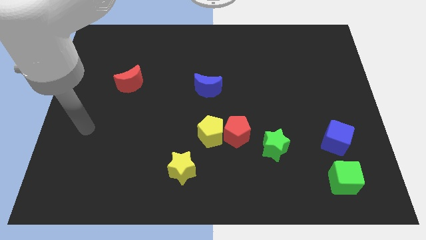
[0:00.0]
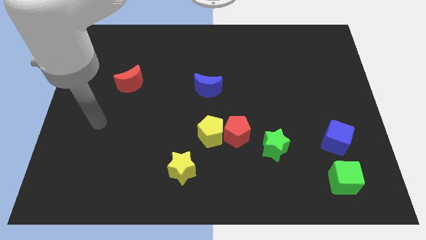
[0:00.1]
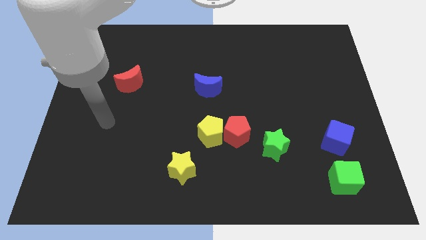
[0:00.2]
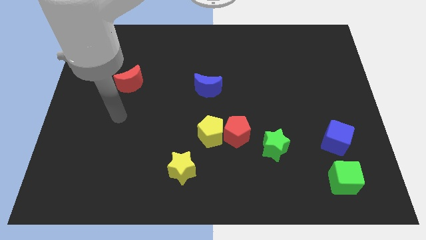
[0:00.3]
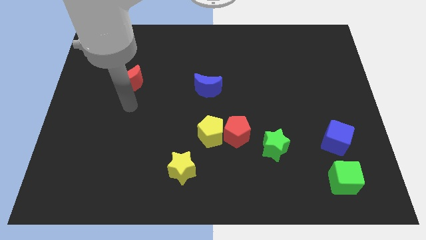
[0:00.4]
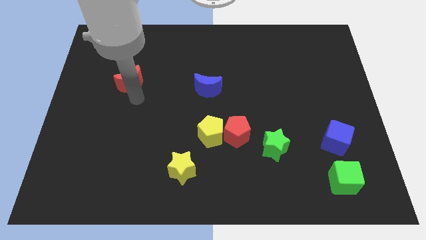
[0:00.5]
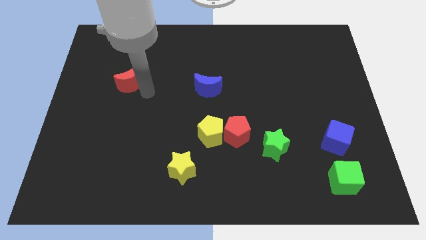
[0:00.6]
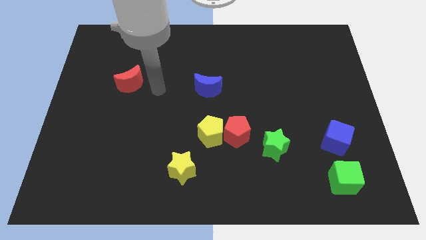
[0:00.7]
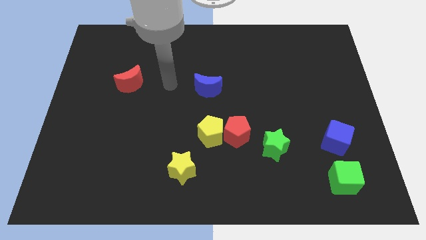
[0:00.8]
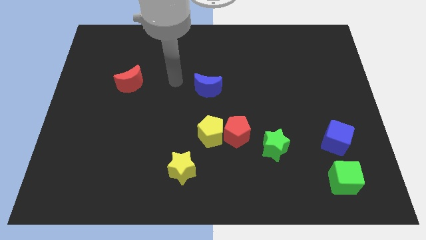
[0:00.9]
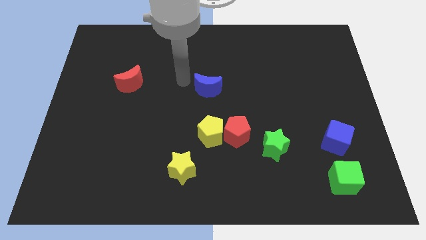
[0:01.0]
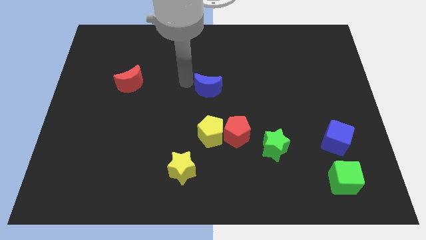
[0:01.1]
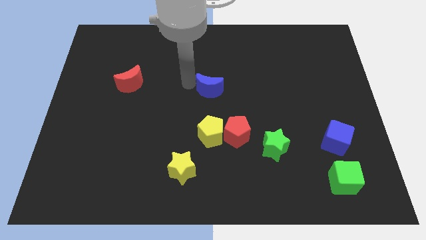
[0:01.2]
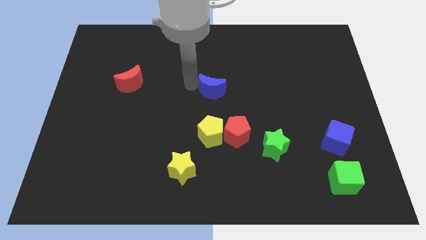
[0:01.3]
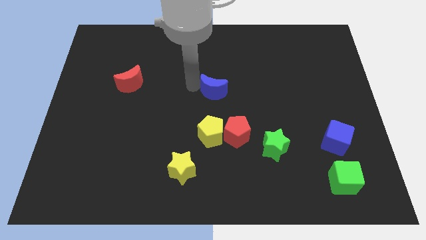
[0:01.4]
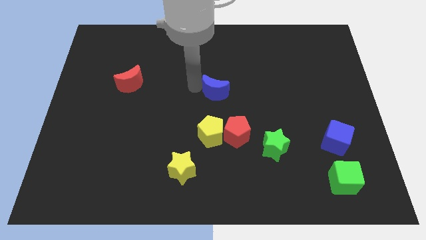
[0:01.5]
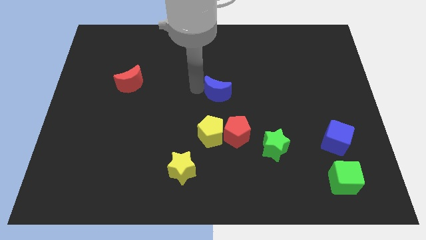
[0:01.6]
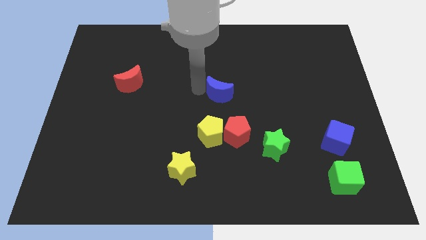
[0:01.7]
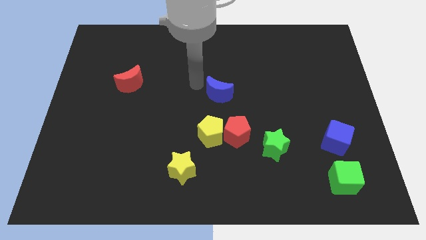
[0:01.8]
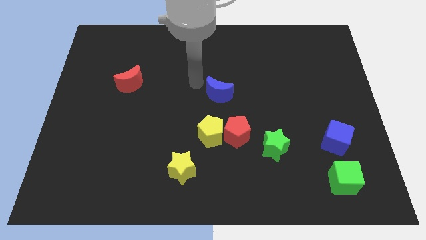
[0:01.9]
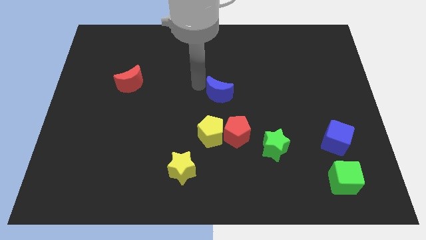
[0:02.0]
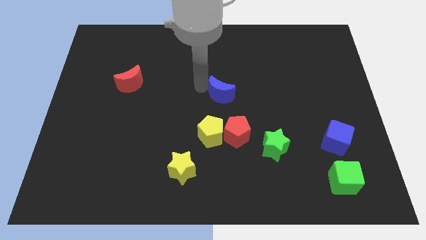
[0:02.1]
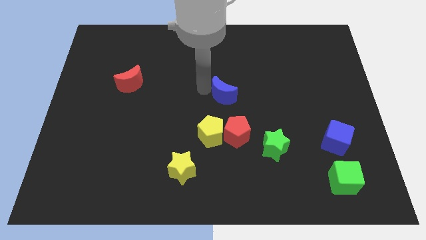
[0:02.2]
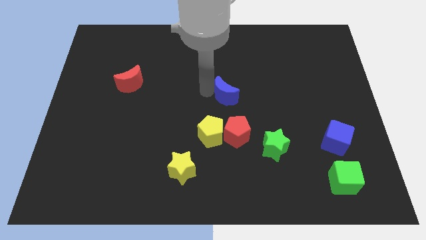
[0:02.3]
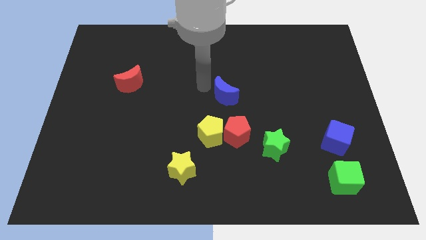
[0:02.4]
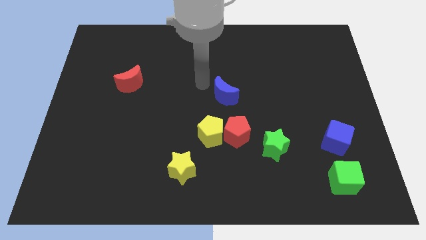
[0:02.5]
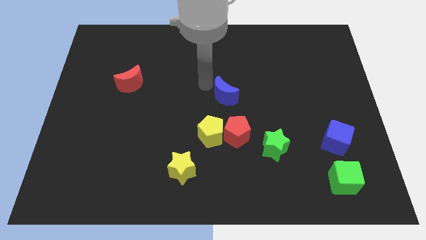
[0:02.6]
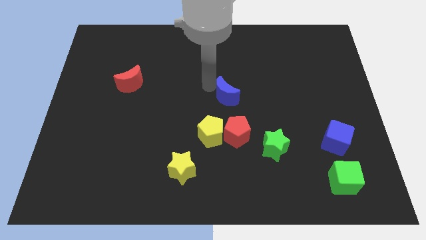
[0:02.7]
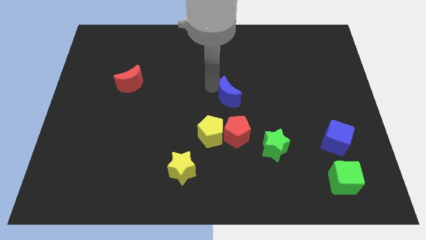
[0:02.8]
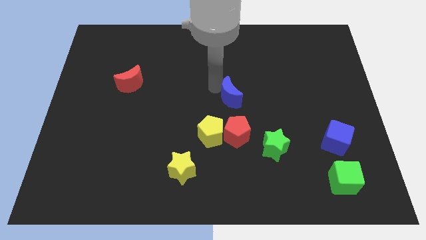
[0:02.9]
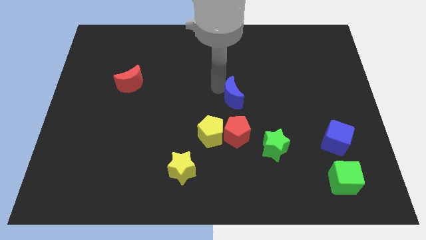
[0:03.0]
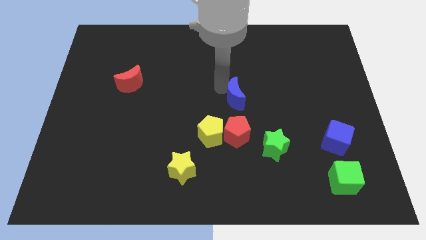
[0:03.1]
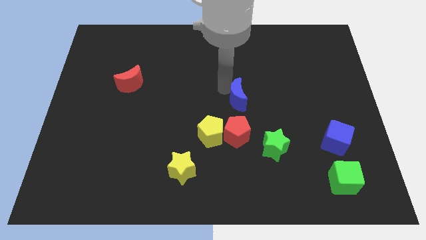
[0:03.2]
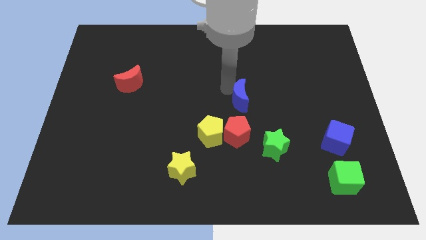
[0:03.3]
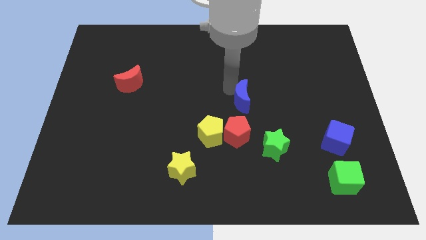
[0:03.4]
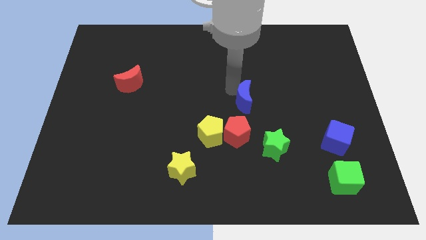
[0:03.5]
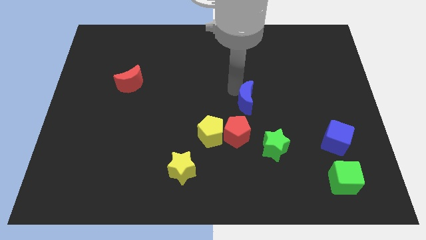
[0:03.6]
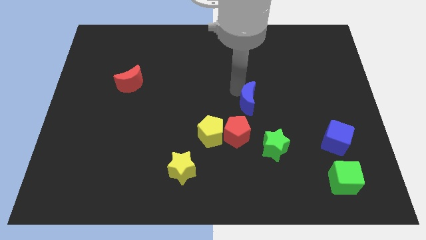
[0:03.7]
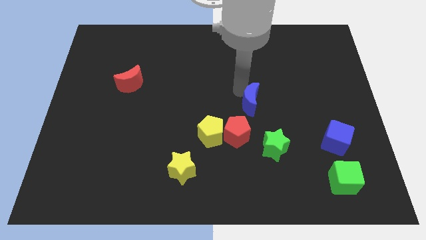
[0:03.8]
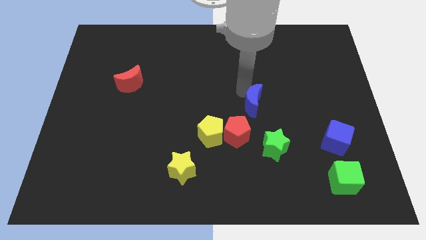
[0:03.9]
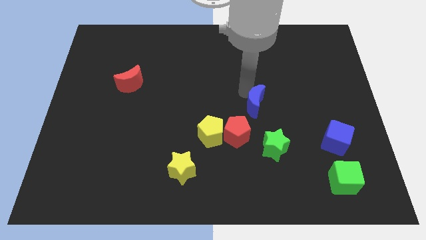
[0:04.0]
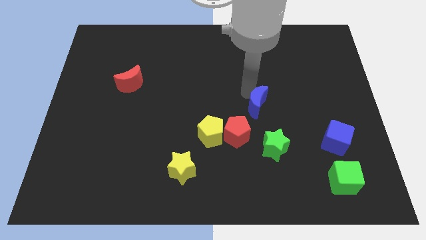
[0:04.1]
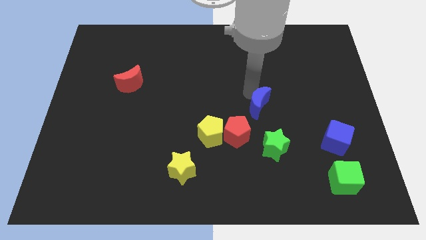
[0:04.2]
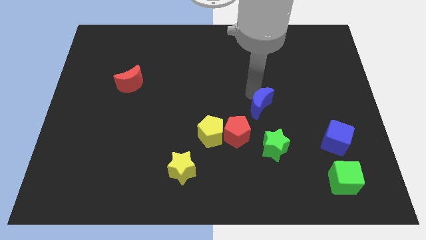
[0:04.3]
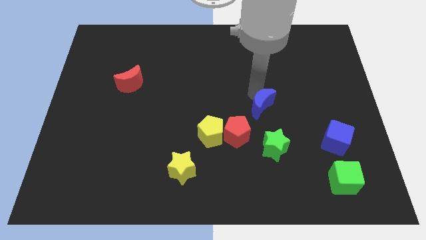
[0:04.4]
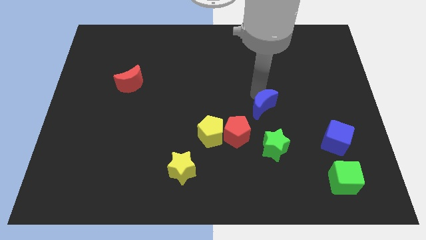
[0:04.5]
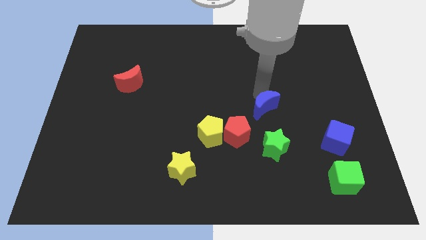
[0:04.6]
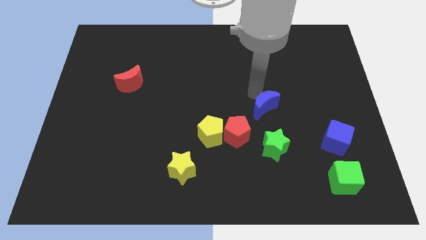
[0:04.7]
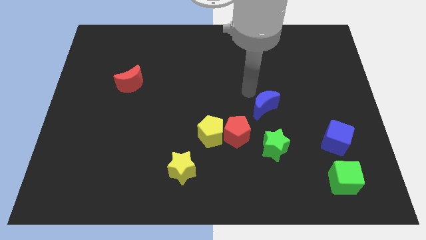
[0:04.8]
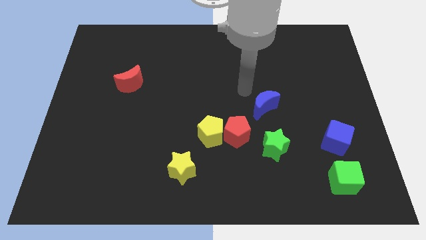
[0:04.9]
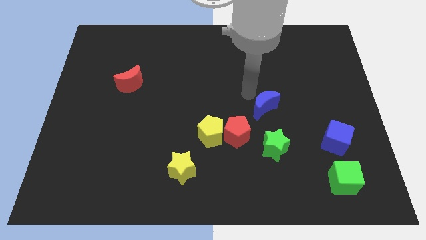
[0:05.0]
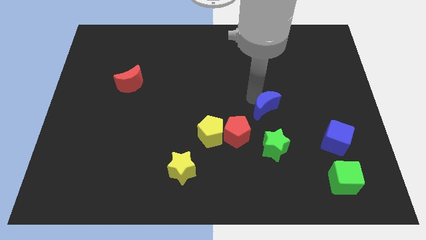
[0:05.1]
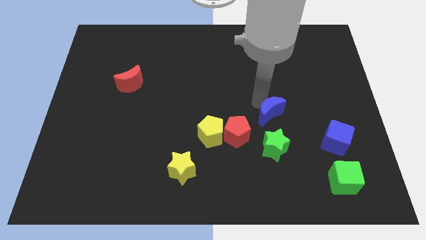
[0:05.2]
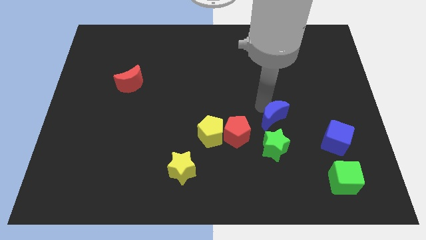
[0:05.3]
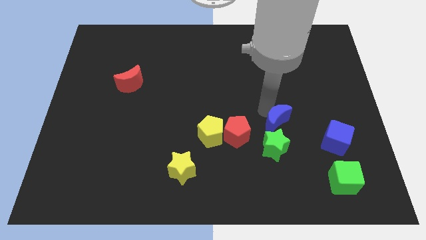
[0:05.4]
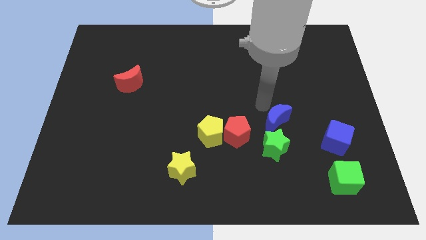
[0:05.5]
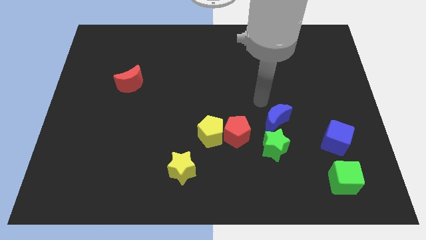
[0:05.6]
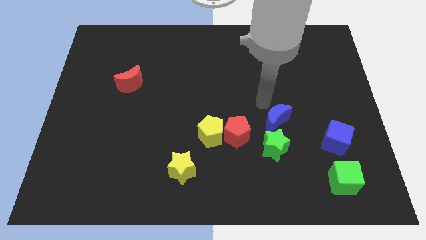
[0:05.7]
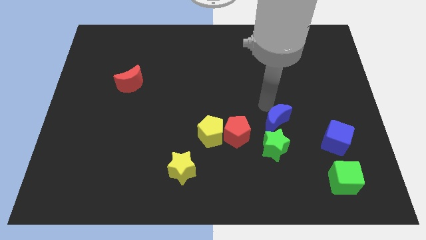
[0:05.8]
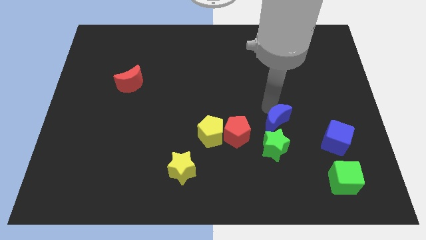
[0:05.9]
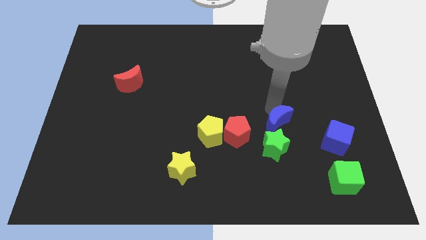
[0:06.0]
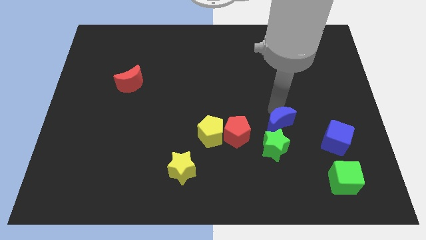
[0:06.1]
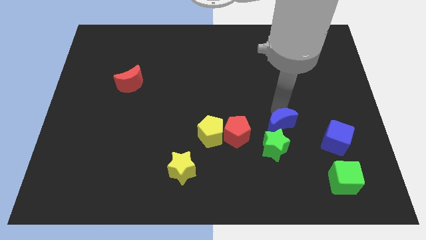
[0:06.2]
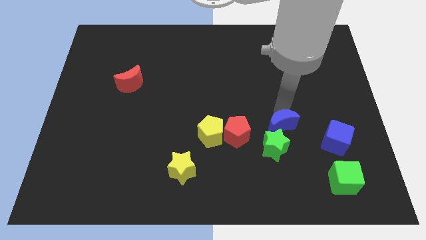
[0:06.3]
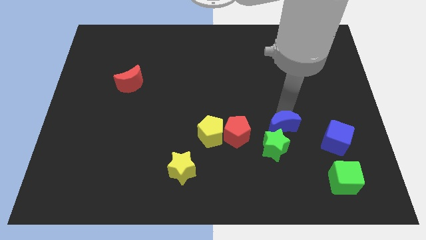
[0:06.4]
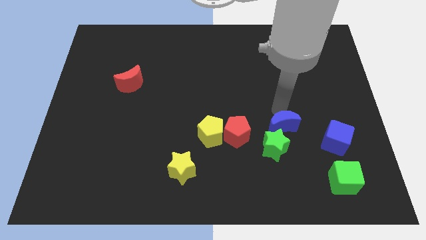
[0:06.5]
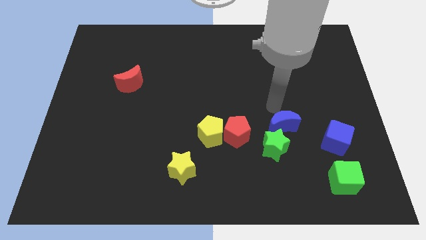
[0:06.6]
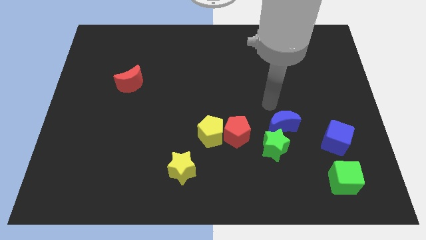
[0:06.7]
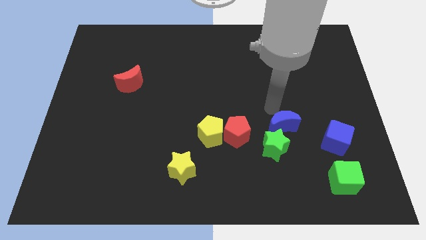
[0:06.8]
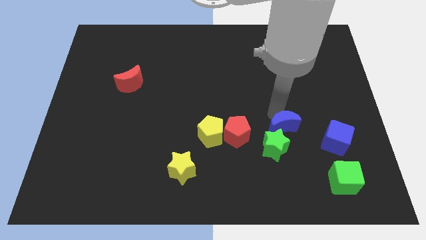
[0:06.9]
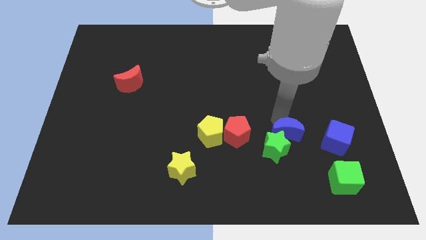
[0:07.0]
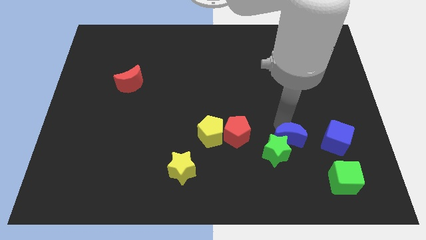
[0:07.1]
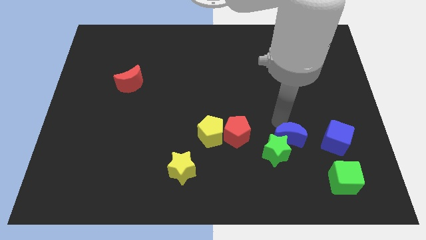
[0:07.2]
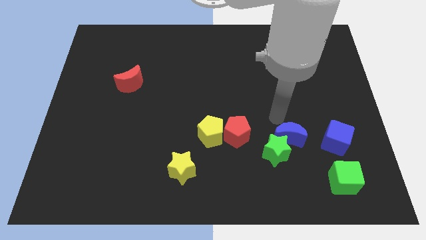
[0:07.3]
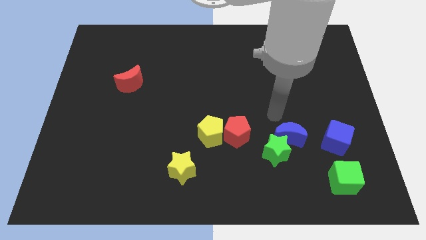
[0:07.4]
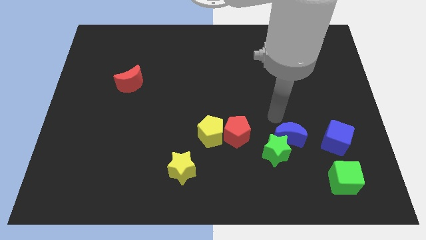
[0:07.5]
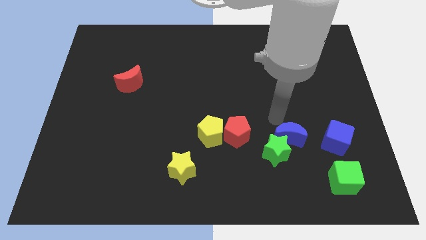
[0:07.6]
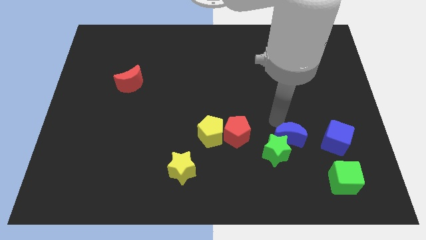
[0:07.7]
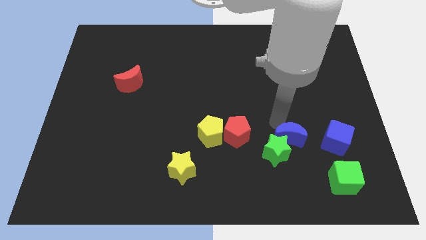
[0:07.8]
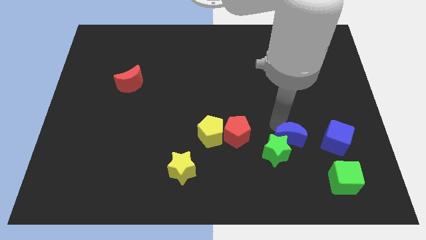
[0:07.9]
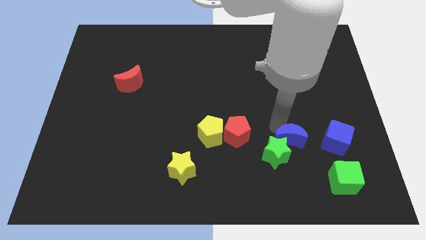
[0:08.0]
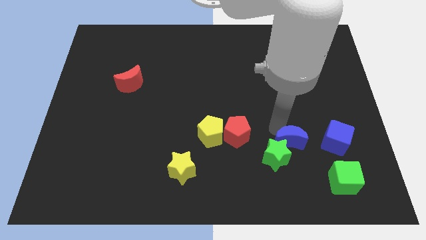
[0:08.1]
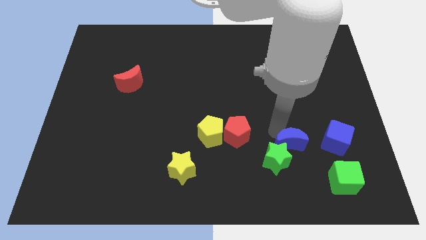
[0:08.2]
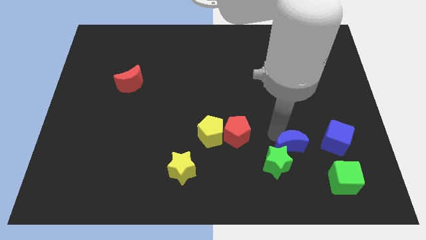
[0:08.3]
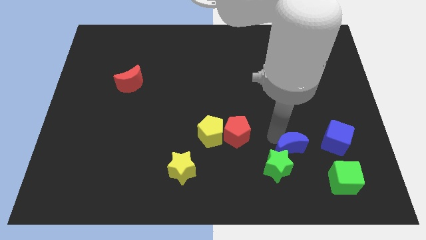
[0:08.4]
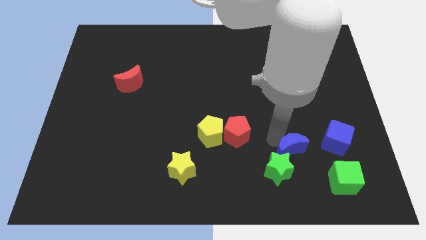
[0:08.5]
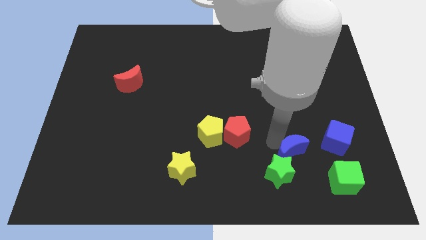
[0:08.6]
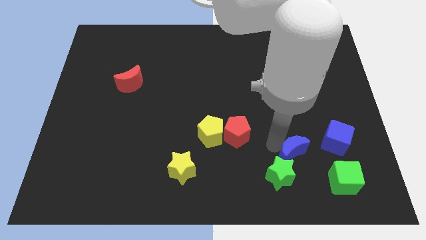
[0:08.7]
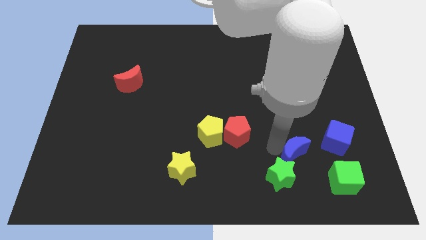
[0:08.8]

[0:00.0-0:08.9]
push the blue moon to the bottom left side of the blue cube
